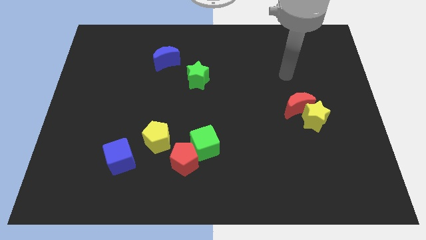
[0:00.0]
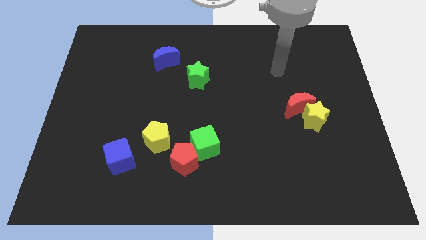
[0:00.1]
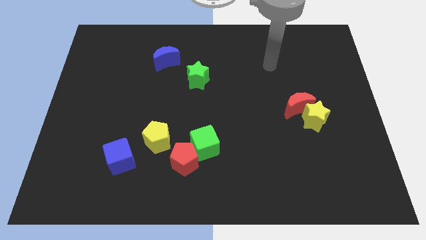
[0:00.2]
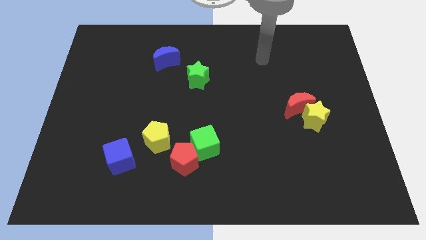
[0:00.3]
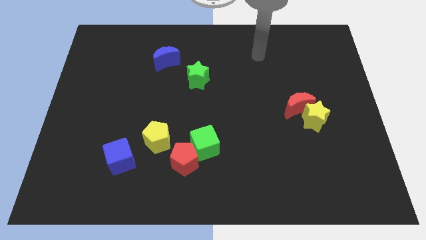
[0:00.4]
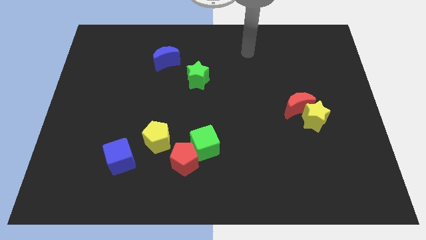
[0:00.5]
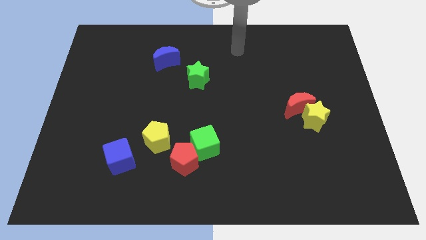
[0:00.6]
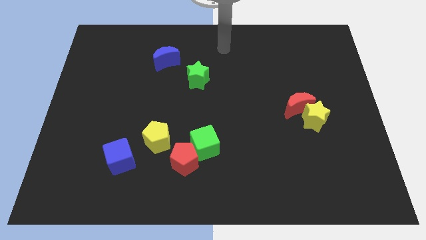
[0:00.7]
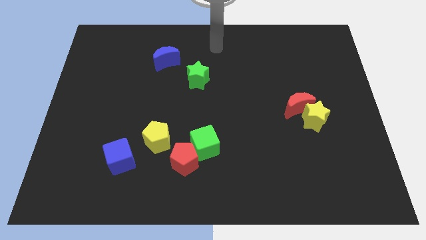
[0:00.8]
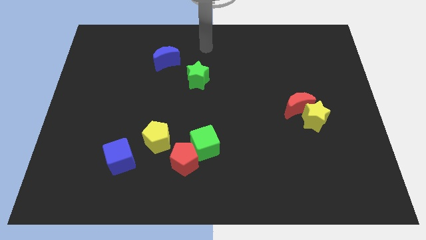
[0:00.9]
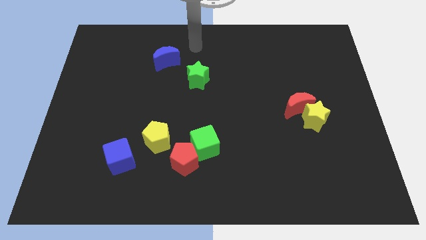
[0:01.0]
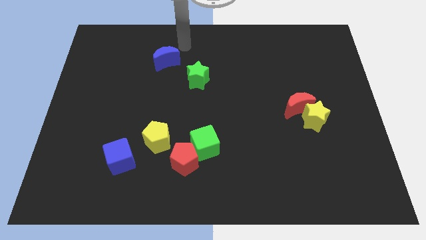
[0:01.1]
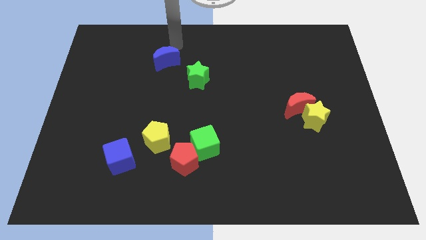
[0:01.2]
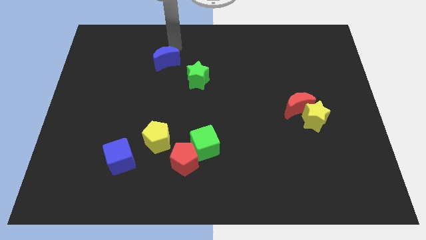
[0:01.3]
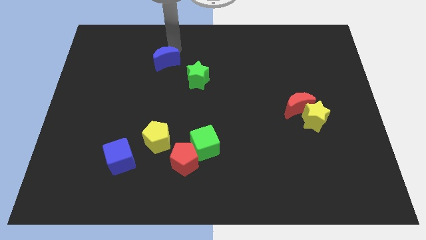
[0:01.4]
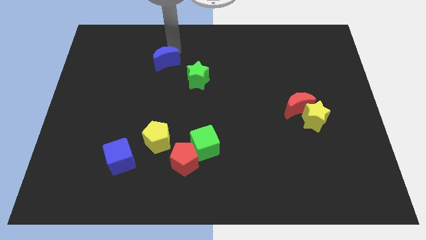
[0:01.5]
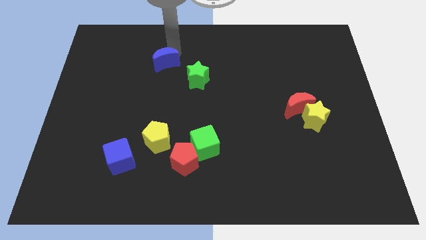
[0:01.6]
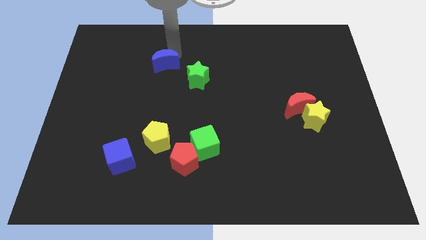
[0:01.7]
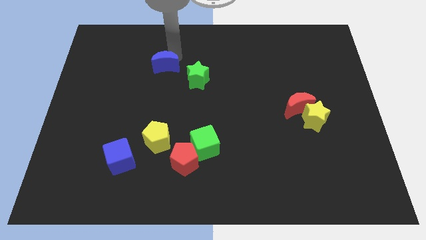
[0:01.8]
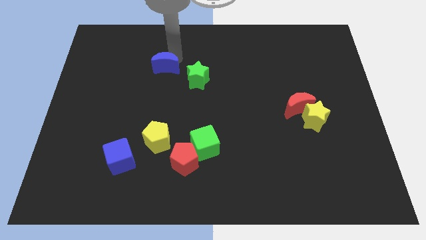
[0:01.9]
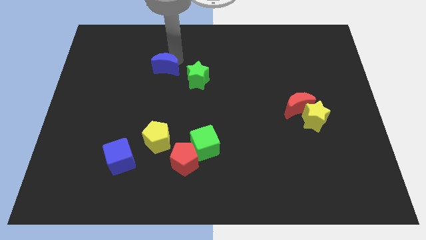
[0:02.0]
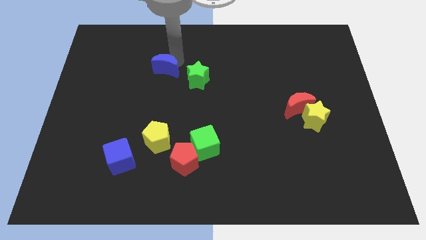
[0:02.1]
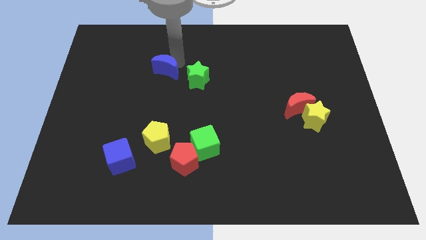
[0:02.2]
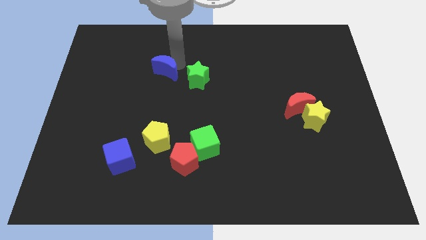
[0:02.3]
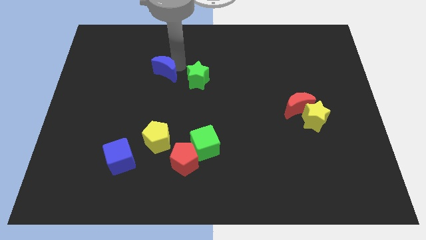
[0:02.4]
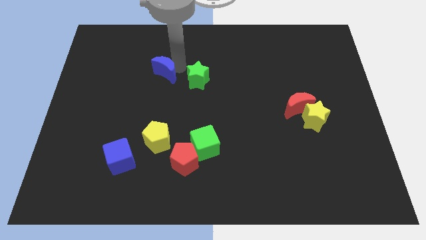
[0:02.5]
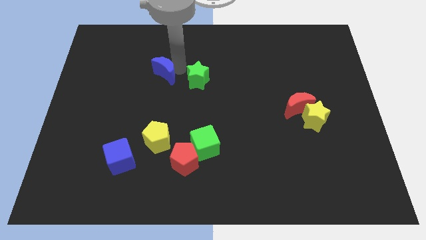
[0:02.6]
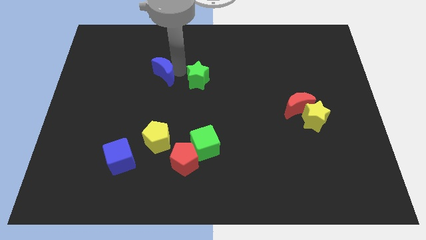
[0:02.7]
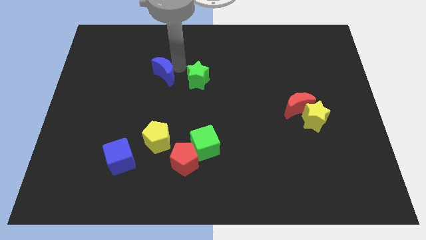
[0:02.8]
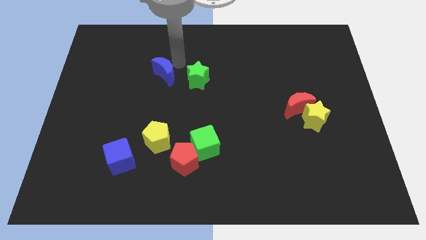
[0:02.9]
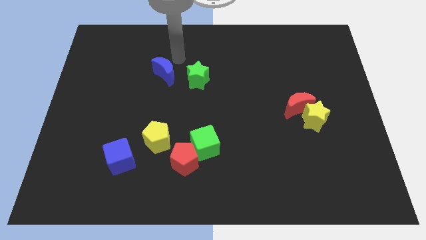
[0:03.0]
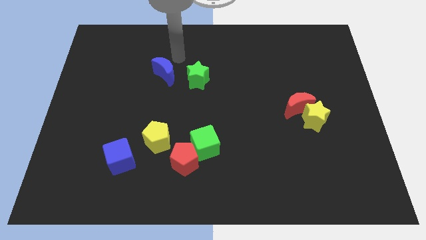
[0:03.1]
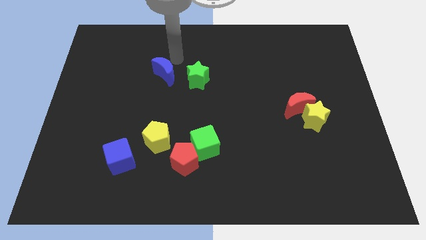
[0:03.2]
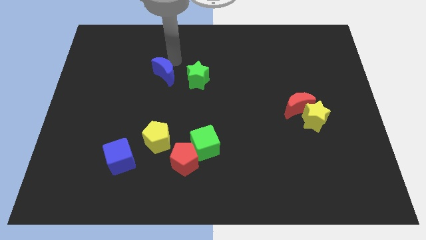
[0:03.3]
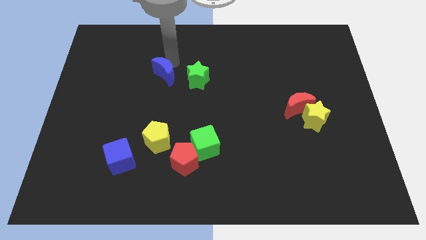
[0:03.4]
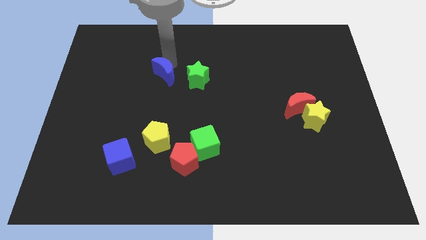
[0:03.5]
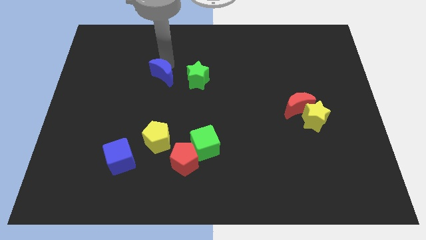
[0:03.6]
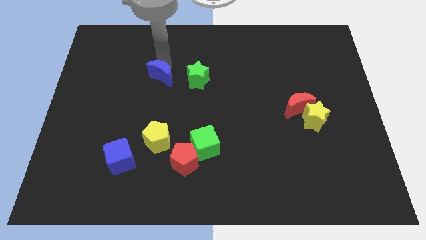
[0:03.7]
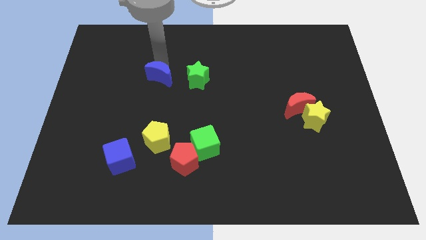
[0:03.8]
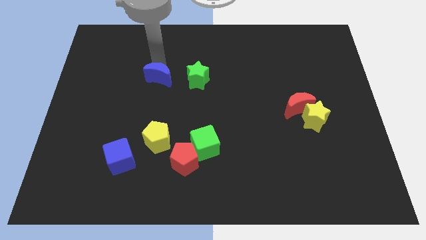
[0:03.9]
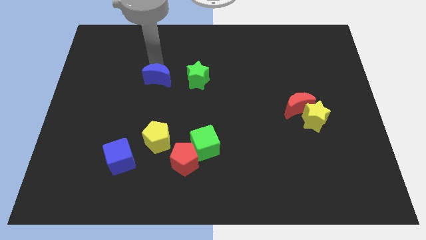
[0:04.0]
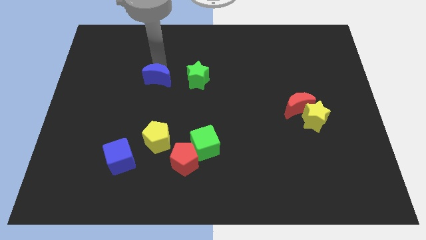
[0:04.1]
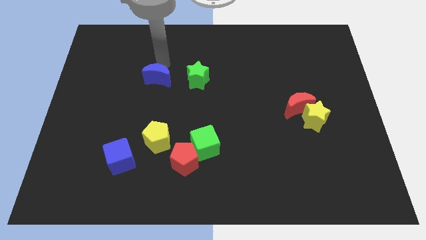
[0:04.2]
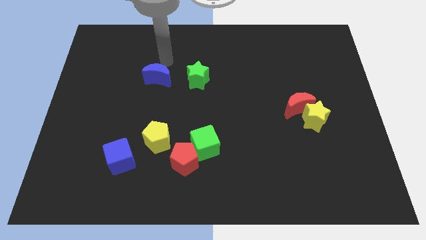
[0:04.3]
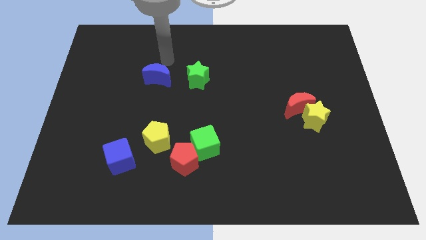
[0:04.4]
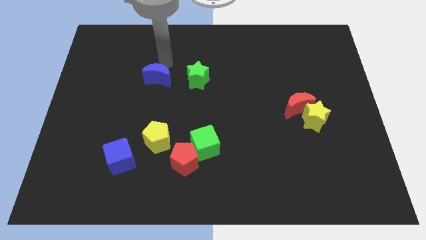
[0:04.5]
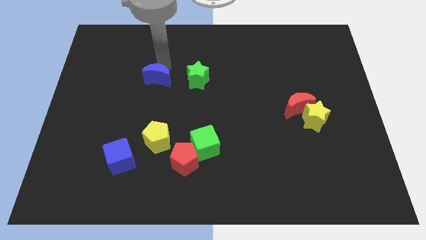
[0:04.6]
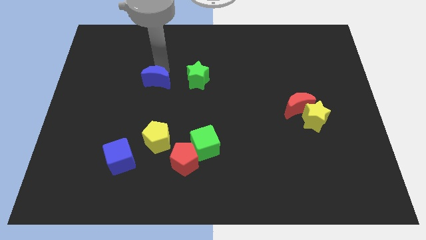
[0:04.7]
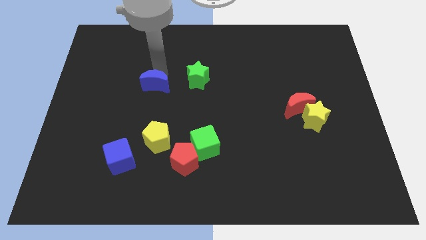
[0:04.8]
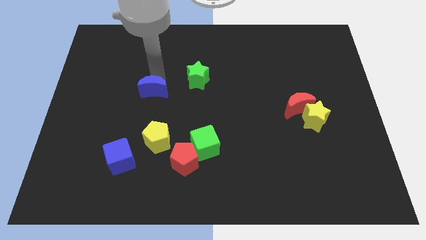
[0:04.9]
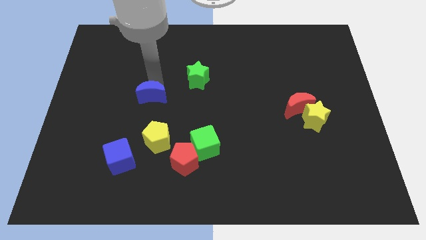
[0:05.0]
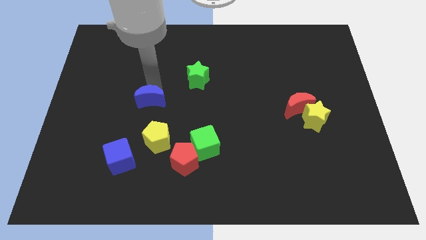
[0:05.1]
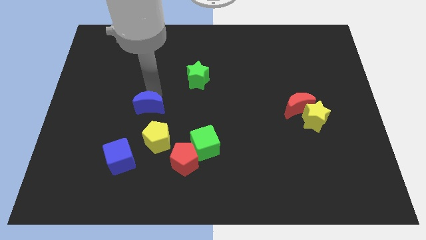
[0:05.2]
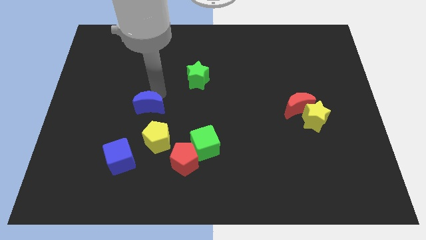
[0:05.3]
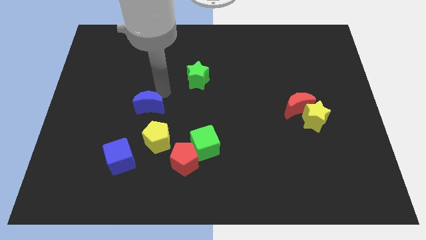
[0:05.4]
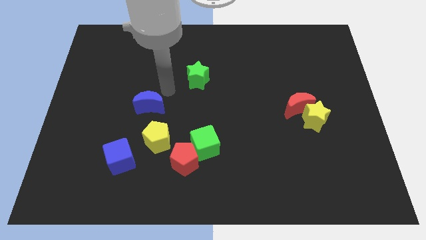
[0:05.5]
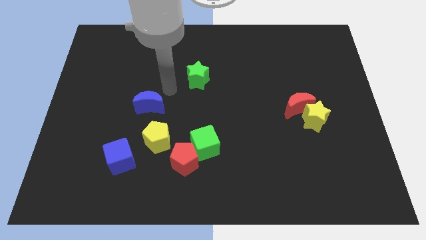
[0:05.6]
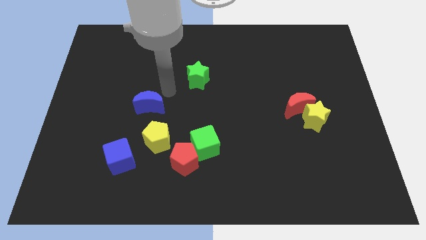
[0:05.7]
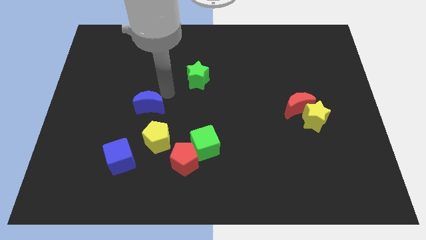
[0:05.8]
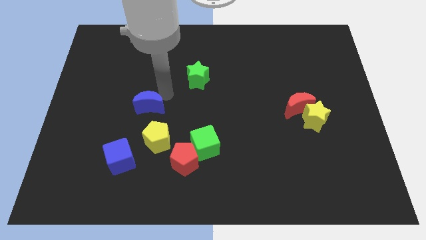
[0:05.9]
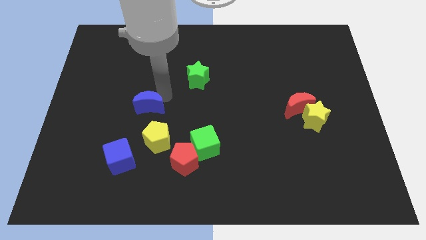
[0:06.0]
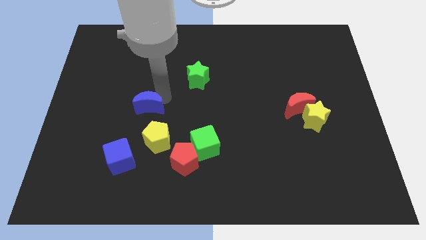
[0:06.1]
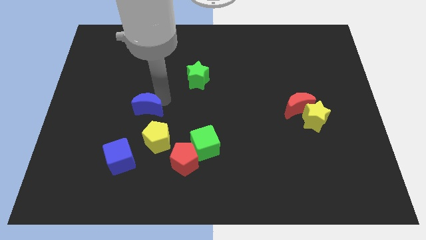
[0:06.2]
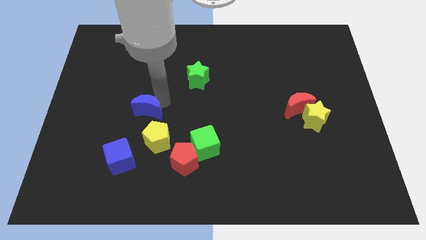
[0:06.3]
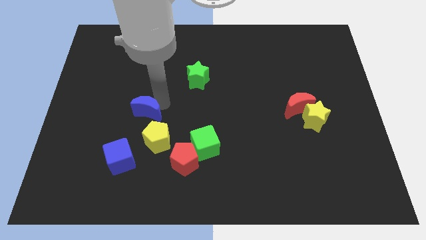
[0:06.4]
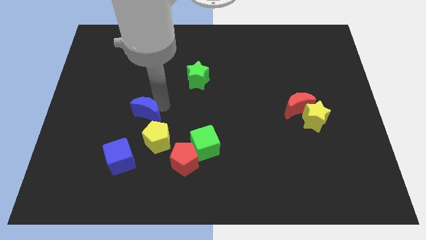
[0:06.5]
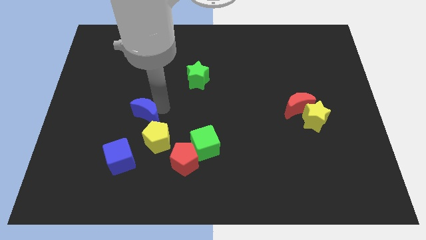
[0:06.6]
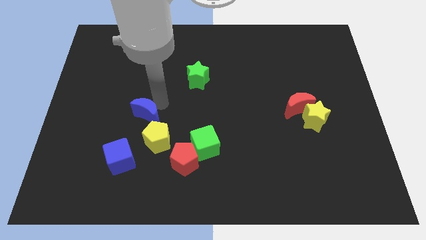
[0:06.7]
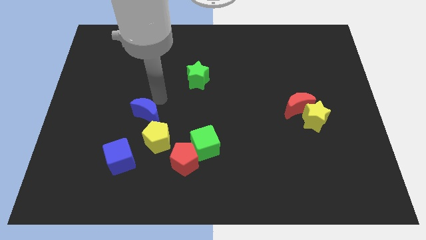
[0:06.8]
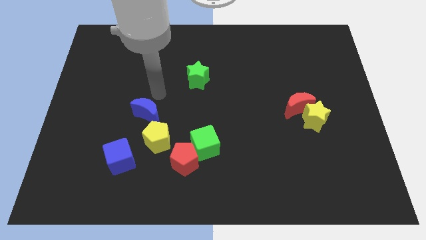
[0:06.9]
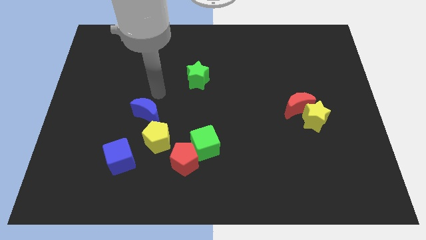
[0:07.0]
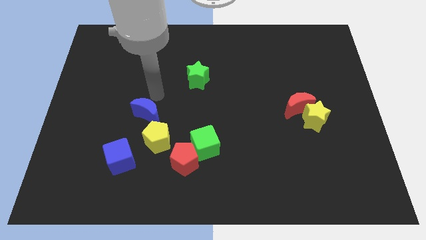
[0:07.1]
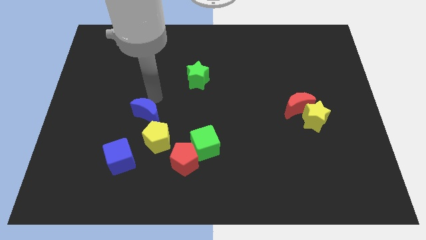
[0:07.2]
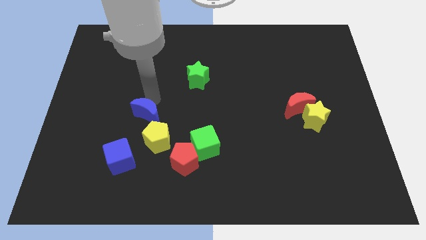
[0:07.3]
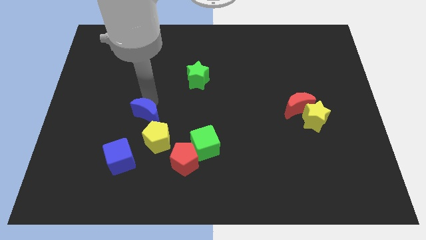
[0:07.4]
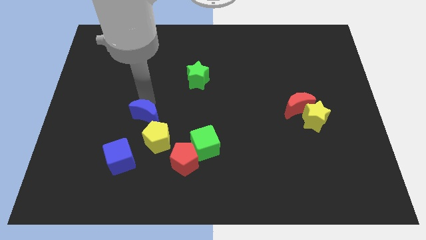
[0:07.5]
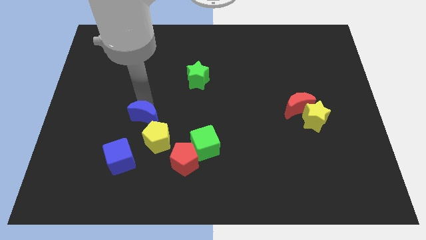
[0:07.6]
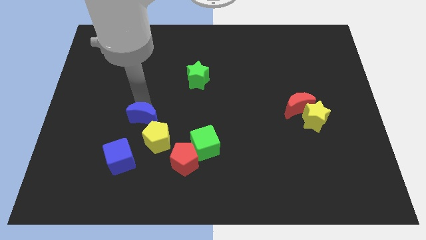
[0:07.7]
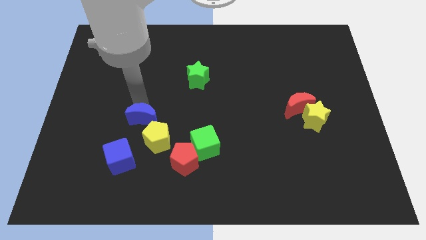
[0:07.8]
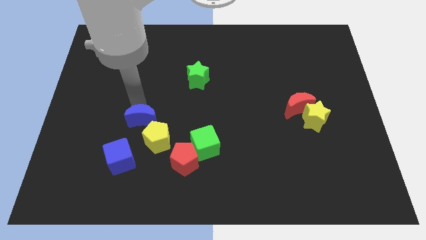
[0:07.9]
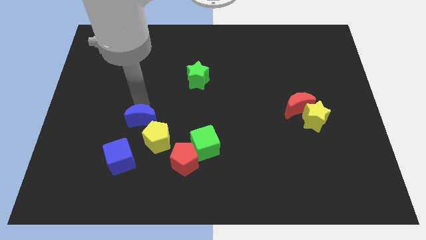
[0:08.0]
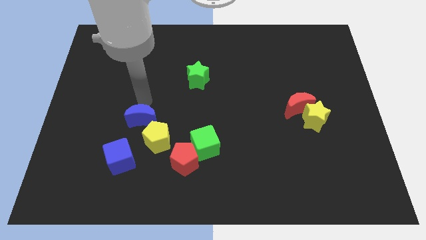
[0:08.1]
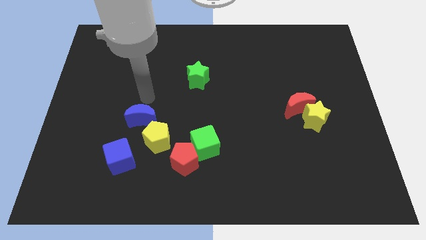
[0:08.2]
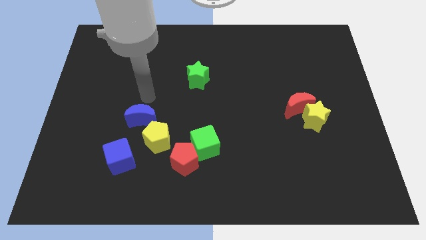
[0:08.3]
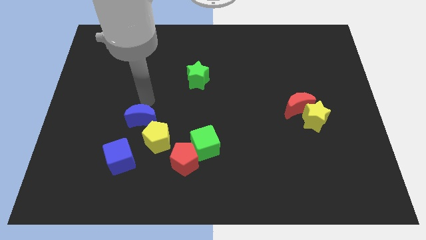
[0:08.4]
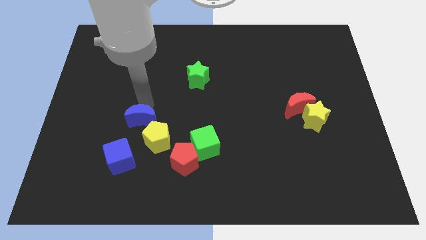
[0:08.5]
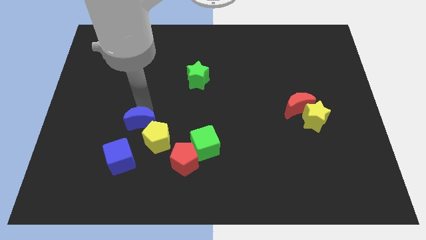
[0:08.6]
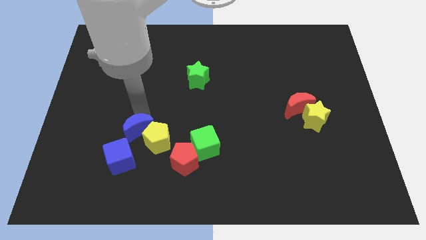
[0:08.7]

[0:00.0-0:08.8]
push the blue moon downwards
